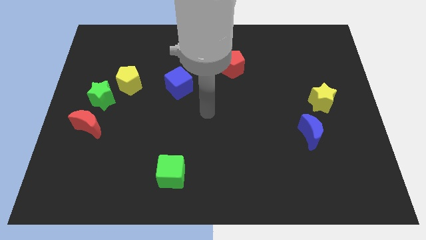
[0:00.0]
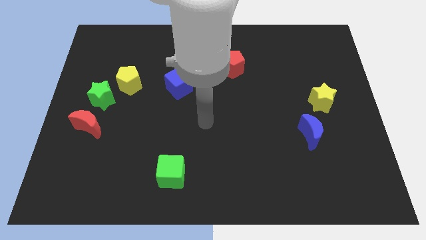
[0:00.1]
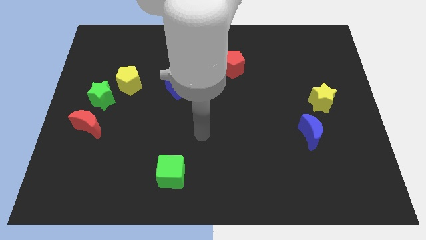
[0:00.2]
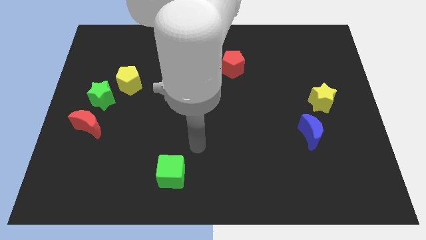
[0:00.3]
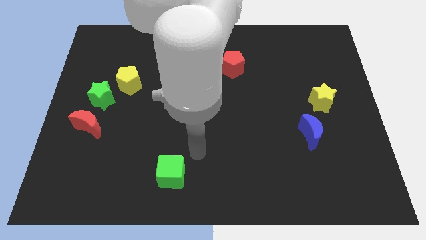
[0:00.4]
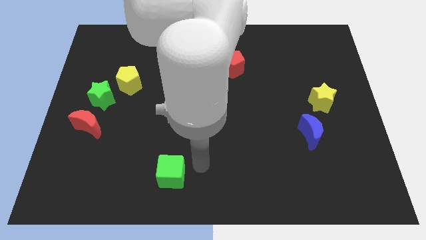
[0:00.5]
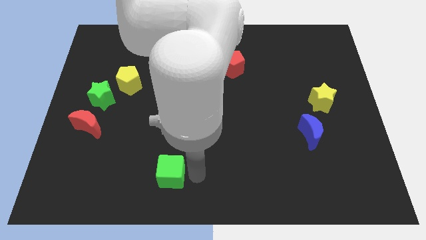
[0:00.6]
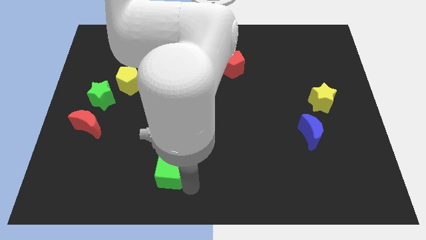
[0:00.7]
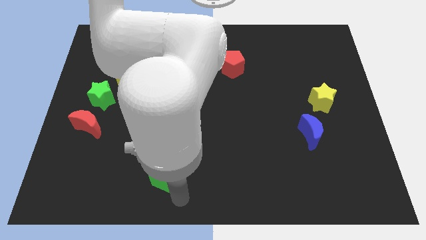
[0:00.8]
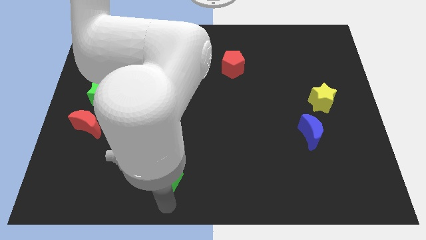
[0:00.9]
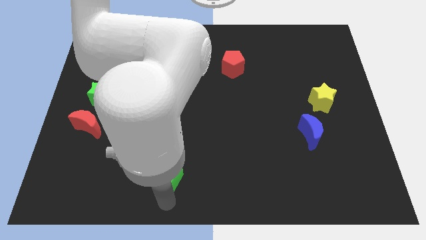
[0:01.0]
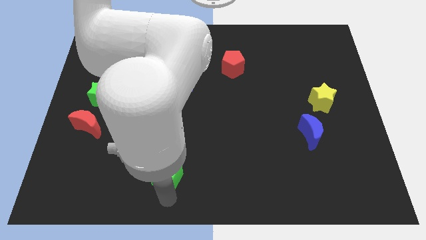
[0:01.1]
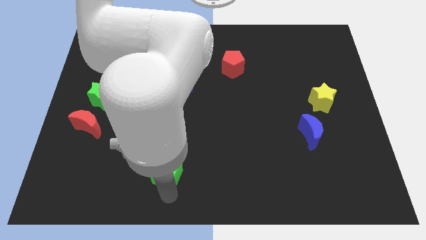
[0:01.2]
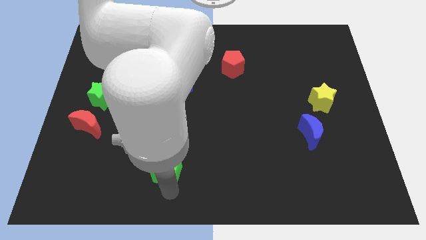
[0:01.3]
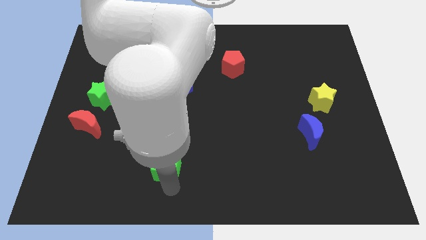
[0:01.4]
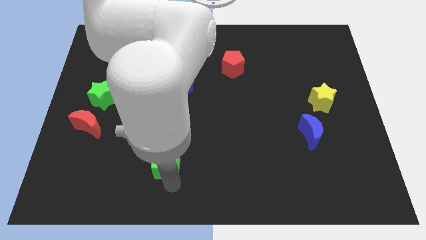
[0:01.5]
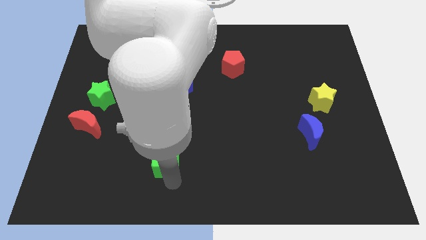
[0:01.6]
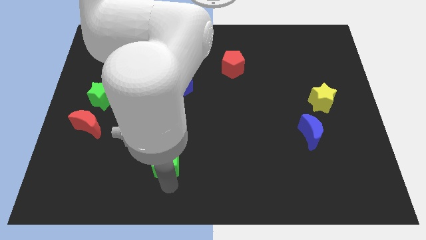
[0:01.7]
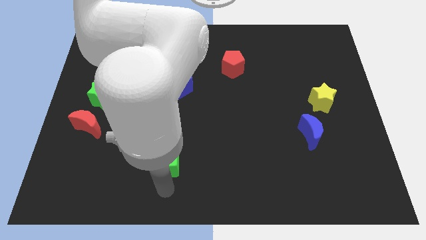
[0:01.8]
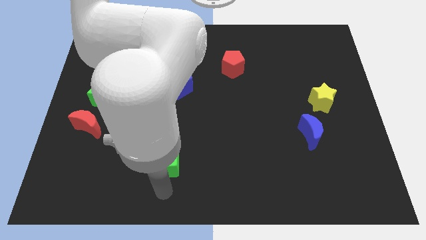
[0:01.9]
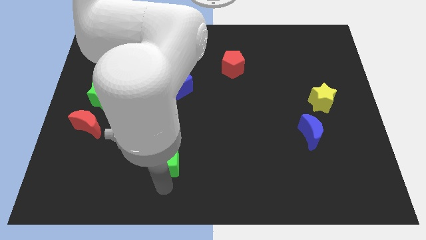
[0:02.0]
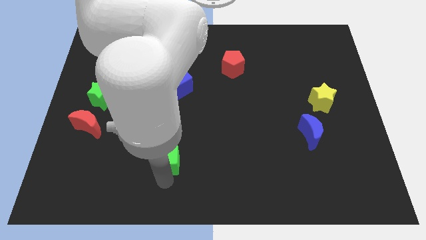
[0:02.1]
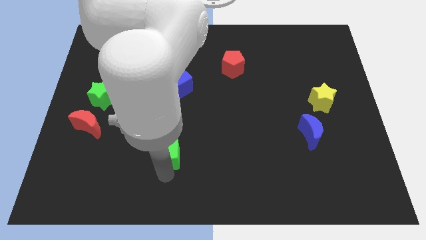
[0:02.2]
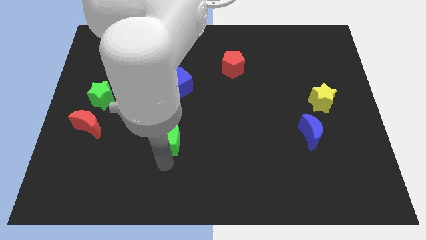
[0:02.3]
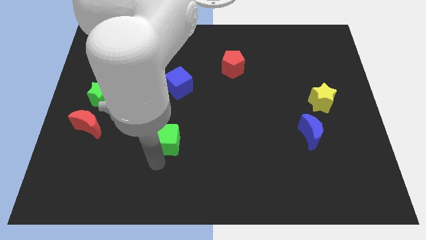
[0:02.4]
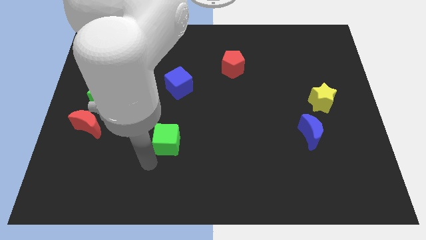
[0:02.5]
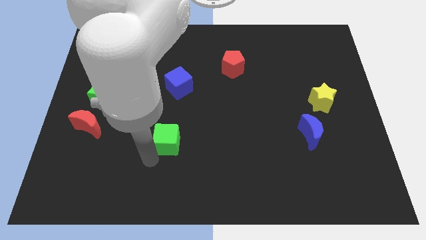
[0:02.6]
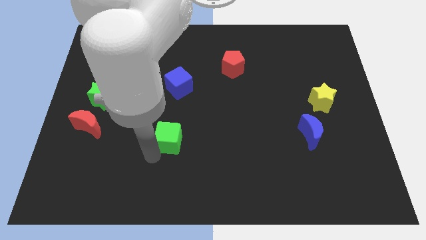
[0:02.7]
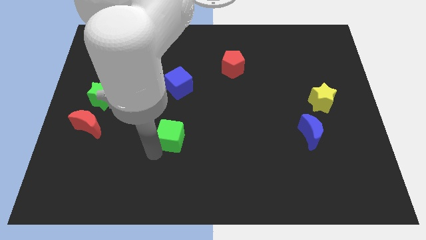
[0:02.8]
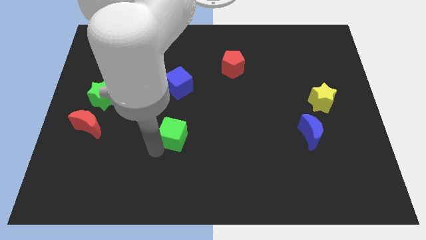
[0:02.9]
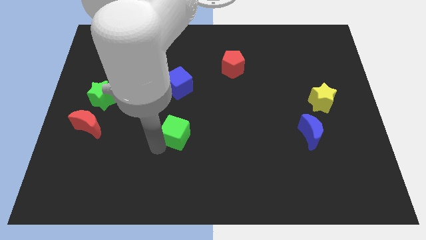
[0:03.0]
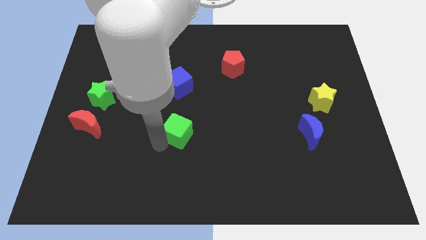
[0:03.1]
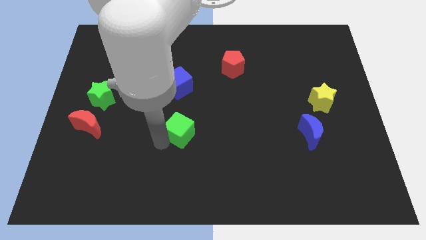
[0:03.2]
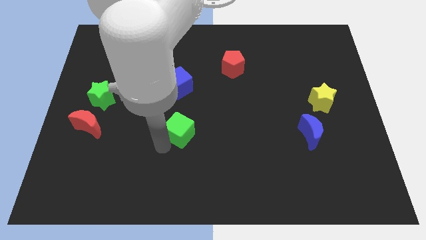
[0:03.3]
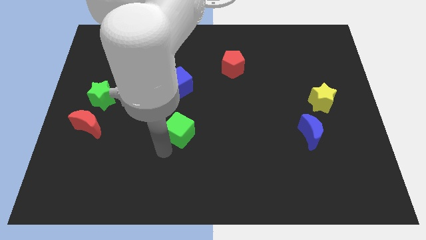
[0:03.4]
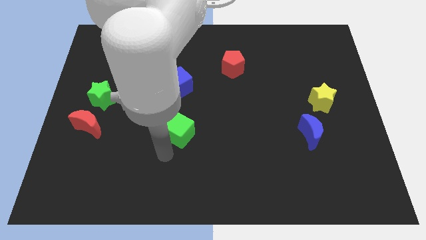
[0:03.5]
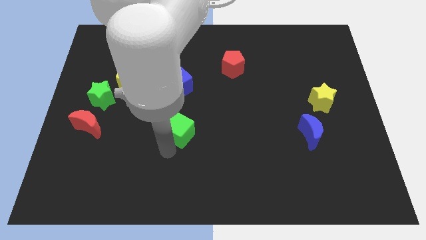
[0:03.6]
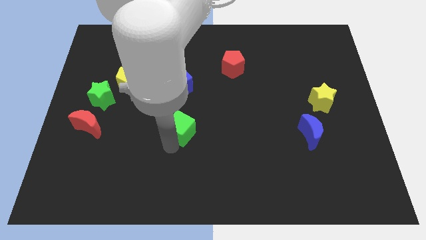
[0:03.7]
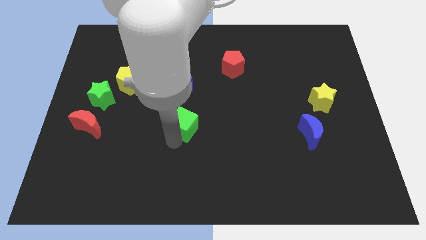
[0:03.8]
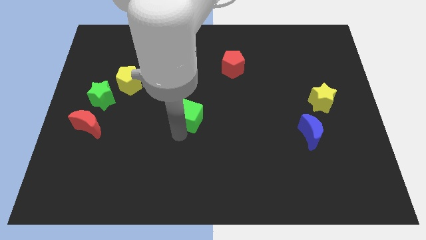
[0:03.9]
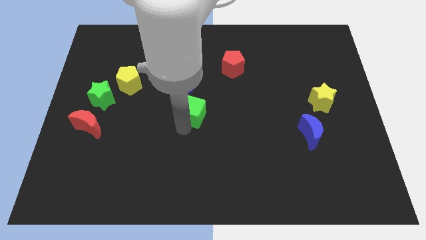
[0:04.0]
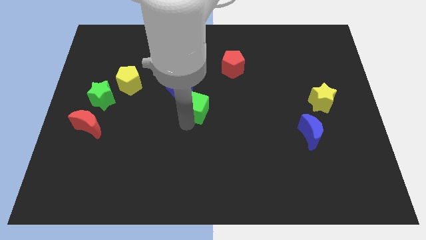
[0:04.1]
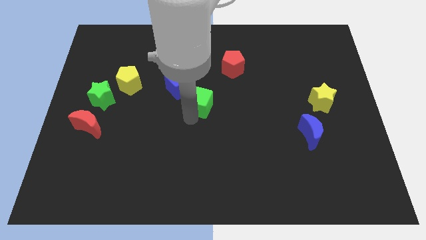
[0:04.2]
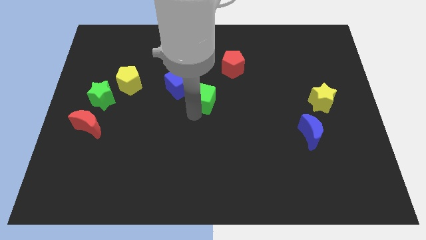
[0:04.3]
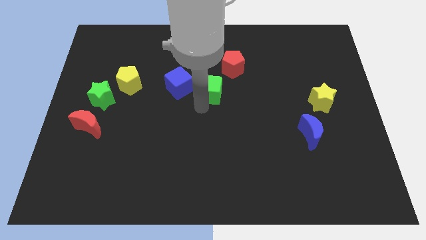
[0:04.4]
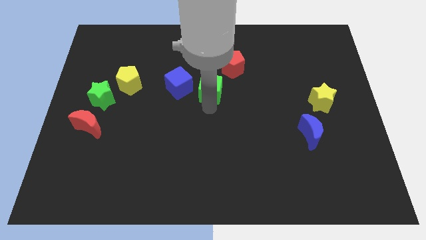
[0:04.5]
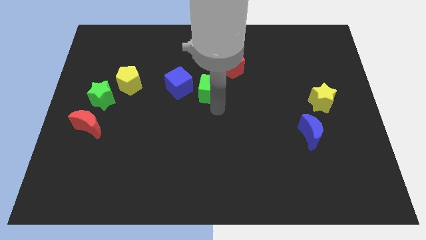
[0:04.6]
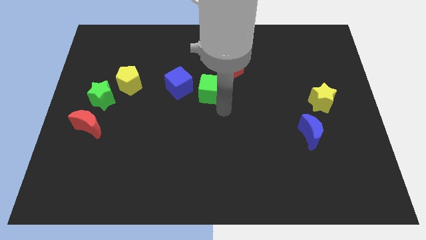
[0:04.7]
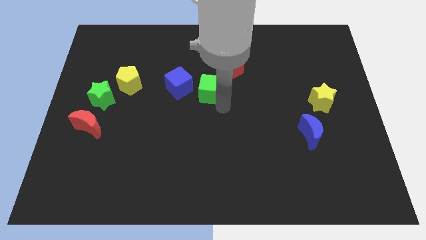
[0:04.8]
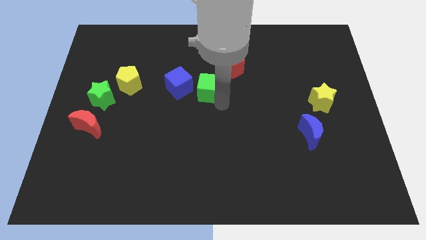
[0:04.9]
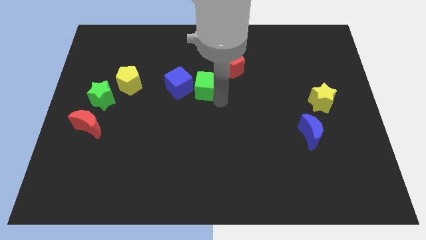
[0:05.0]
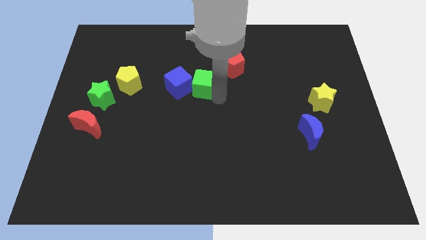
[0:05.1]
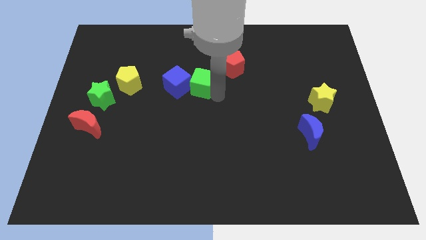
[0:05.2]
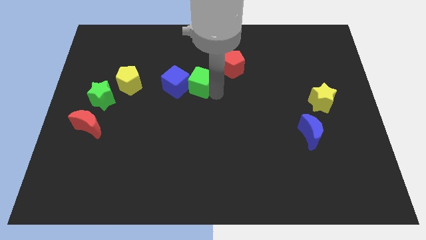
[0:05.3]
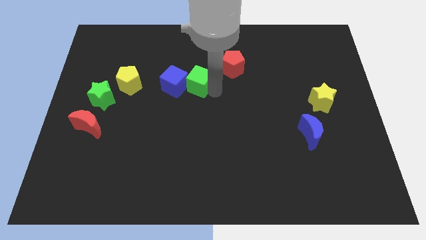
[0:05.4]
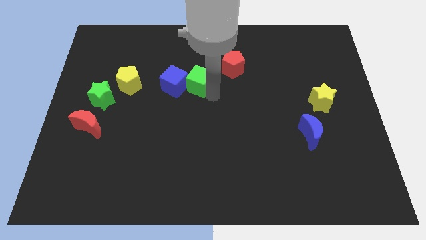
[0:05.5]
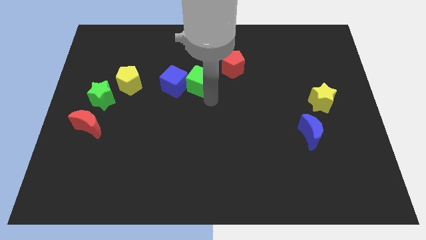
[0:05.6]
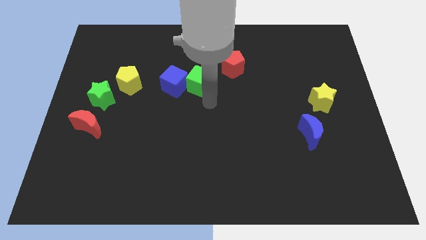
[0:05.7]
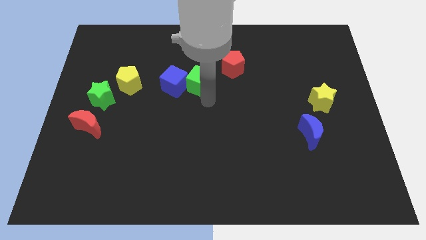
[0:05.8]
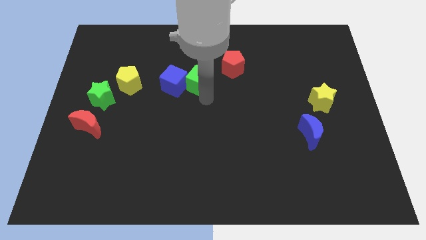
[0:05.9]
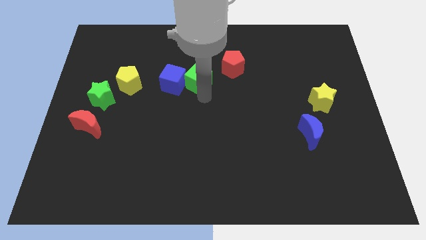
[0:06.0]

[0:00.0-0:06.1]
push the green cube left of the red pentagon

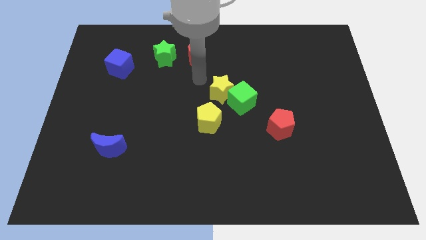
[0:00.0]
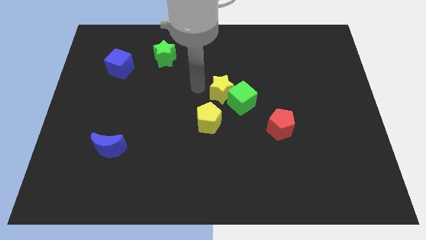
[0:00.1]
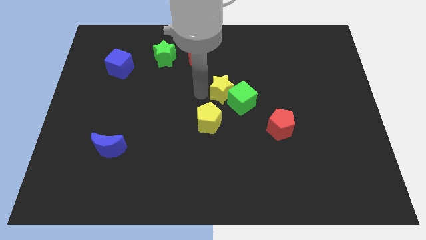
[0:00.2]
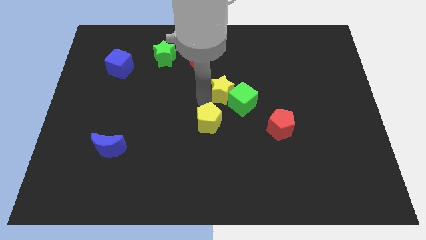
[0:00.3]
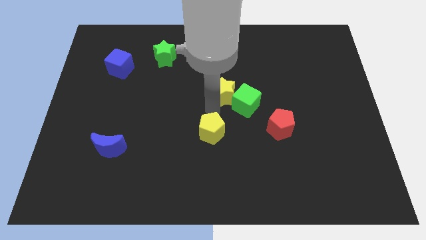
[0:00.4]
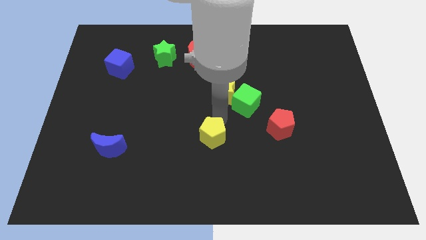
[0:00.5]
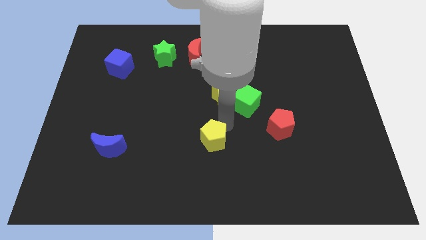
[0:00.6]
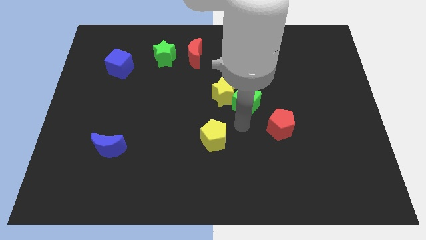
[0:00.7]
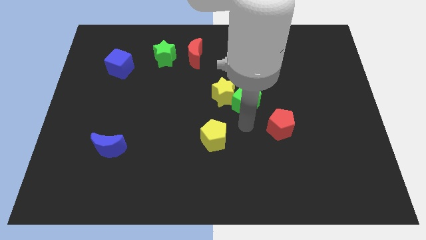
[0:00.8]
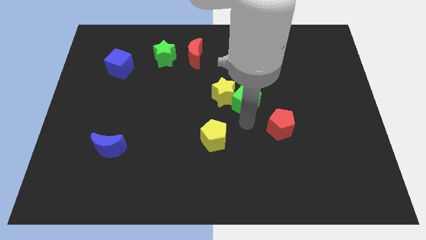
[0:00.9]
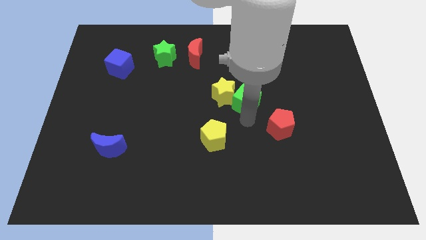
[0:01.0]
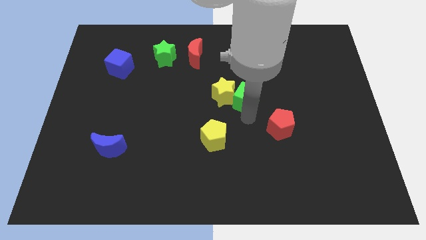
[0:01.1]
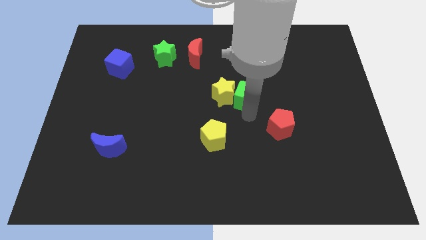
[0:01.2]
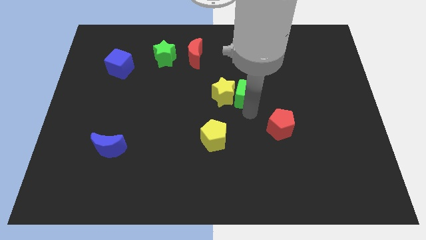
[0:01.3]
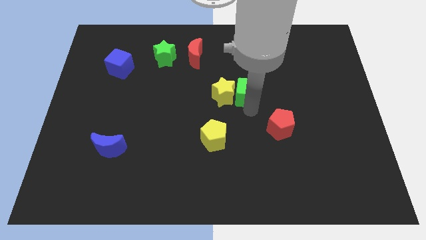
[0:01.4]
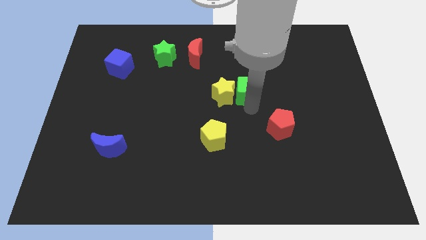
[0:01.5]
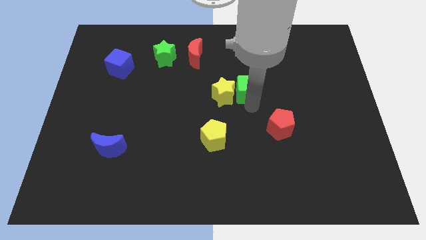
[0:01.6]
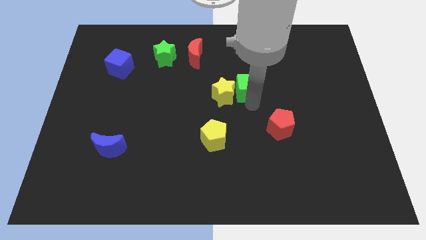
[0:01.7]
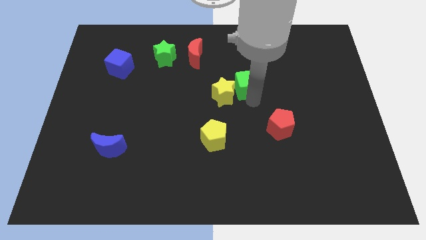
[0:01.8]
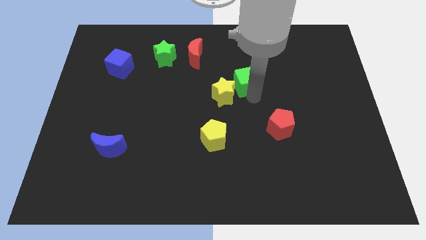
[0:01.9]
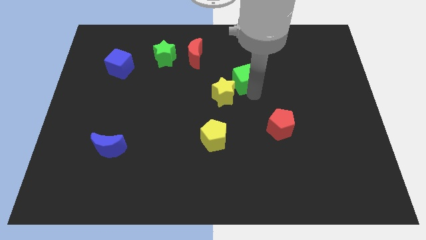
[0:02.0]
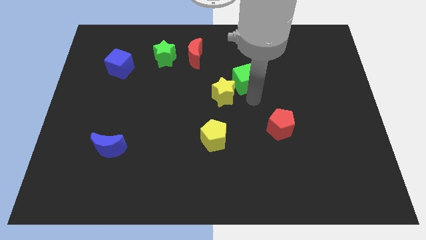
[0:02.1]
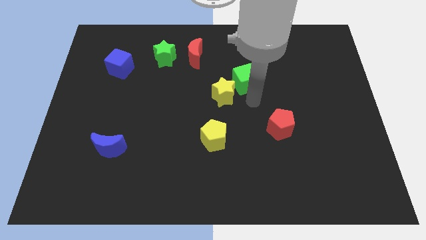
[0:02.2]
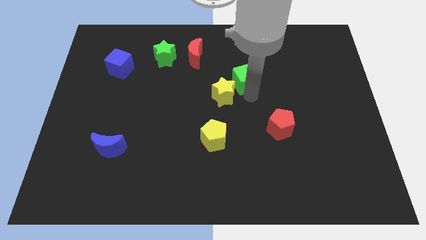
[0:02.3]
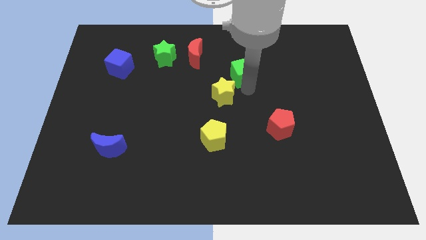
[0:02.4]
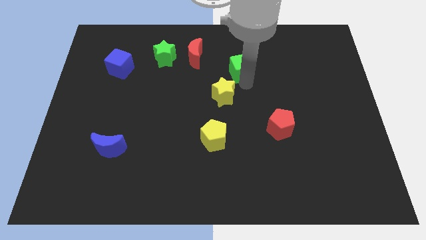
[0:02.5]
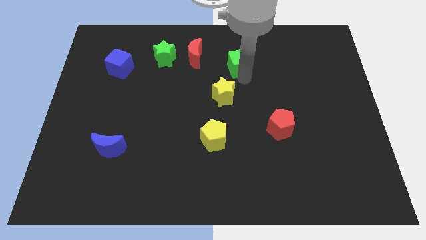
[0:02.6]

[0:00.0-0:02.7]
put the green cube to the right of the red moon
